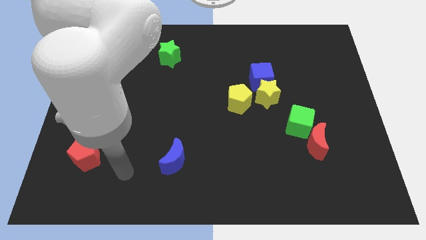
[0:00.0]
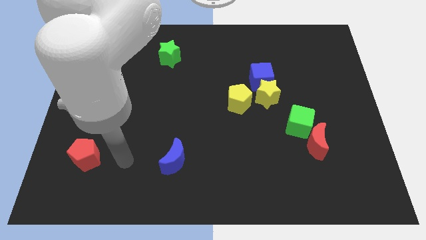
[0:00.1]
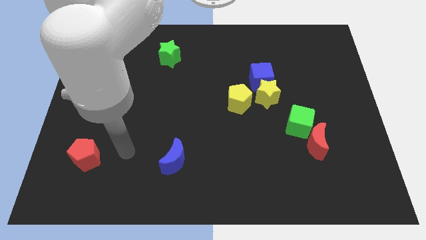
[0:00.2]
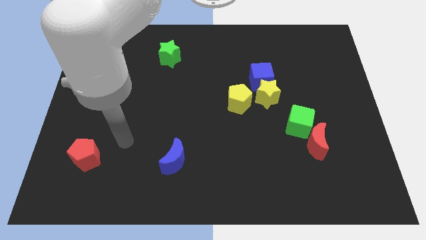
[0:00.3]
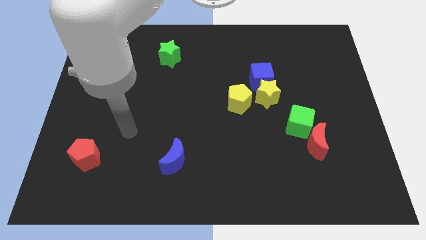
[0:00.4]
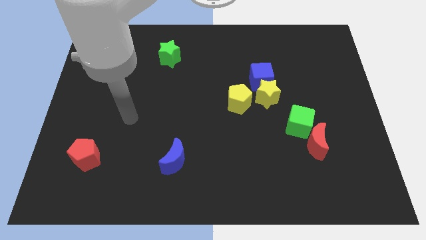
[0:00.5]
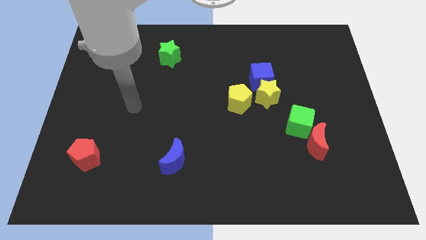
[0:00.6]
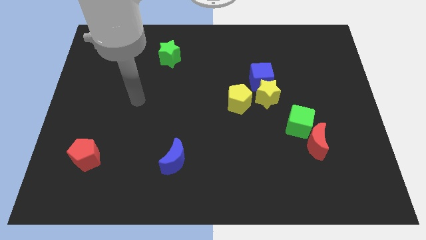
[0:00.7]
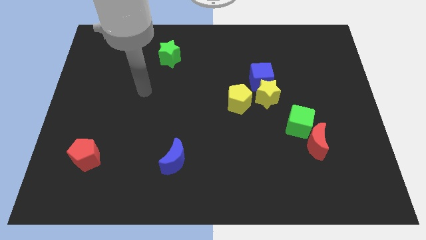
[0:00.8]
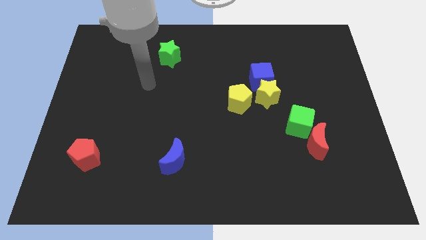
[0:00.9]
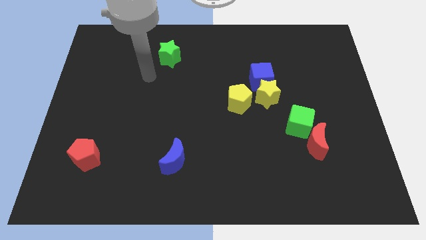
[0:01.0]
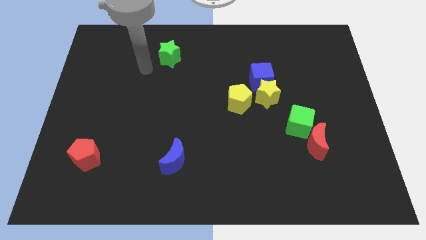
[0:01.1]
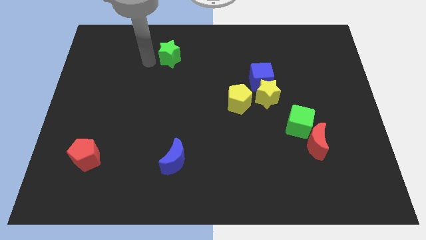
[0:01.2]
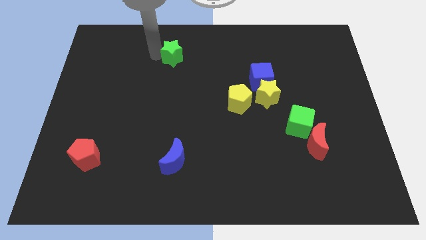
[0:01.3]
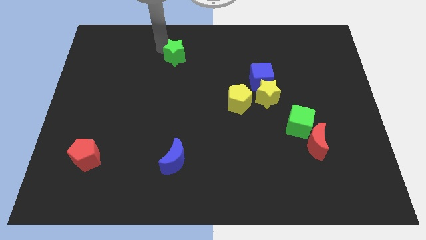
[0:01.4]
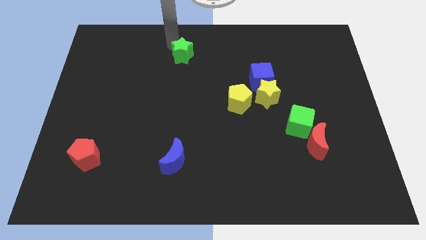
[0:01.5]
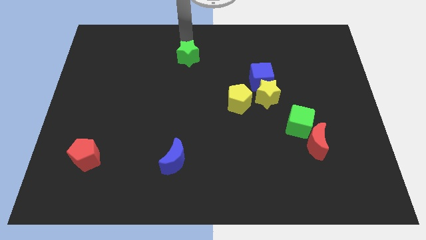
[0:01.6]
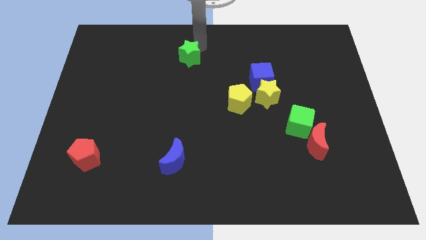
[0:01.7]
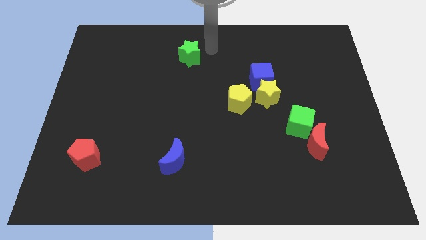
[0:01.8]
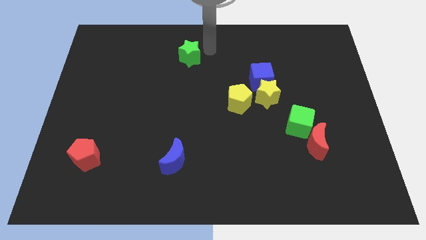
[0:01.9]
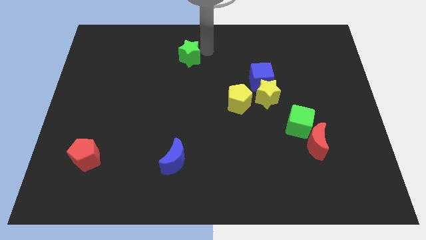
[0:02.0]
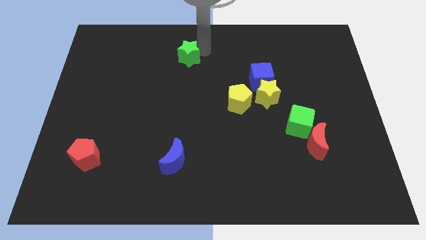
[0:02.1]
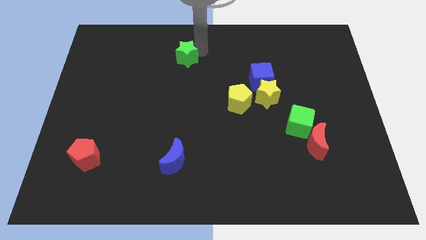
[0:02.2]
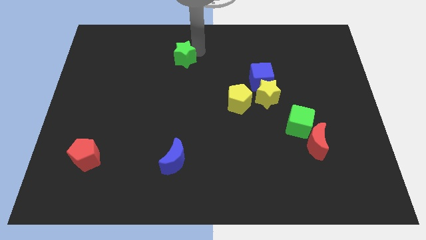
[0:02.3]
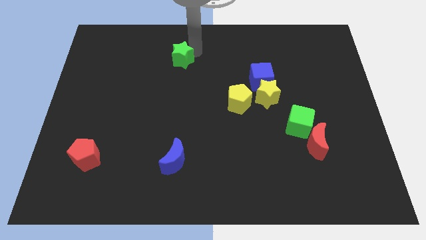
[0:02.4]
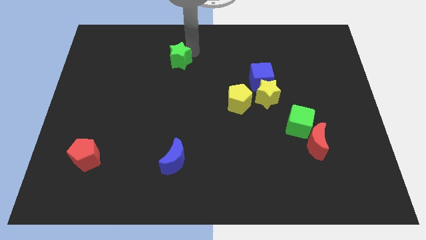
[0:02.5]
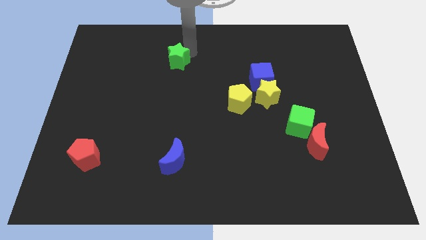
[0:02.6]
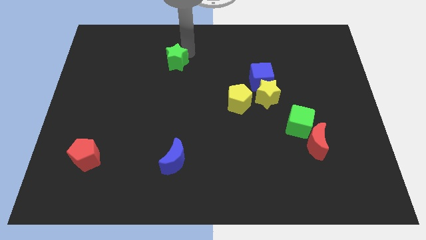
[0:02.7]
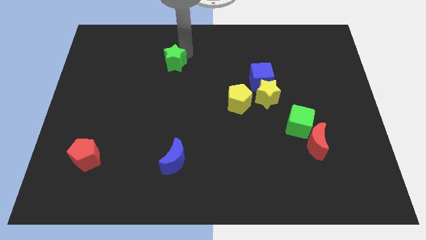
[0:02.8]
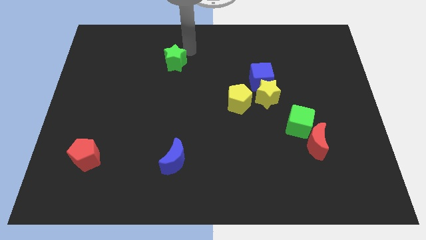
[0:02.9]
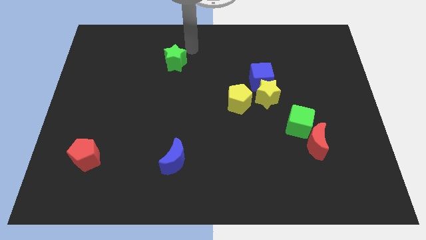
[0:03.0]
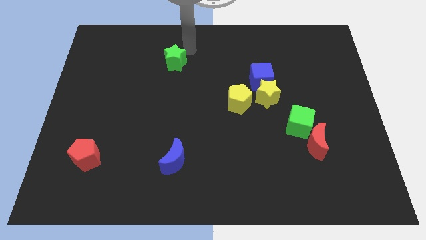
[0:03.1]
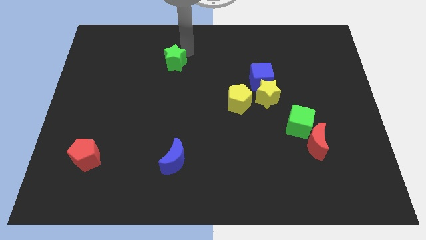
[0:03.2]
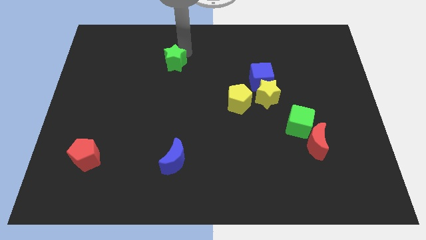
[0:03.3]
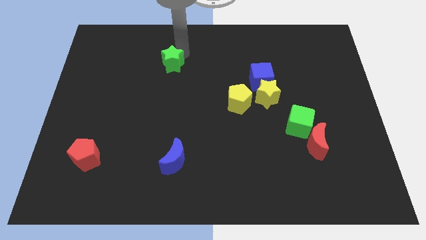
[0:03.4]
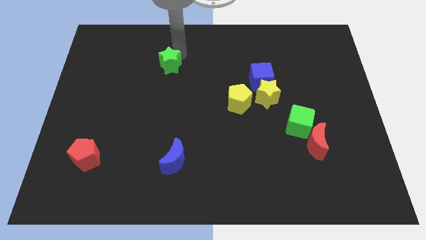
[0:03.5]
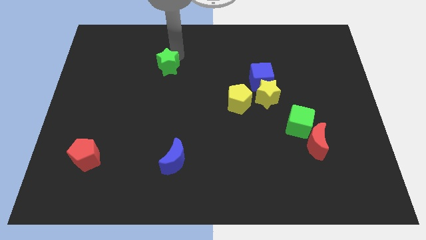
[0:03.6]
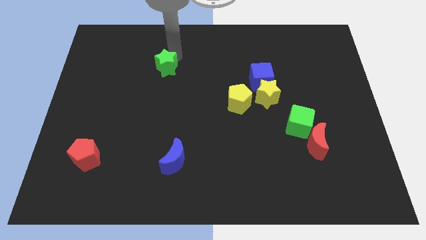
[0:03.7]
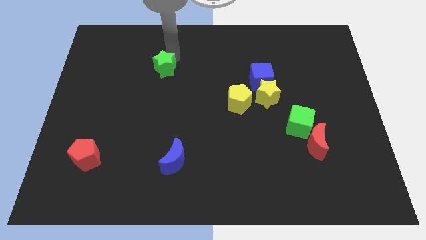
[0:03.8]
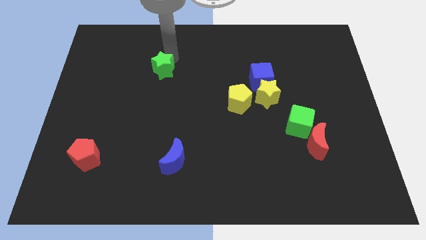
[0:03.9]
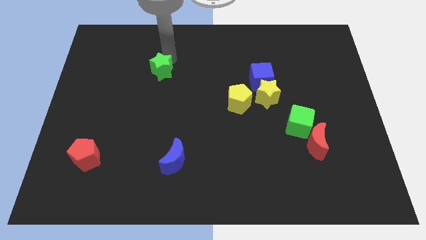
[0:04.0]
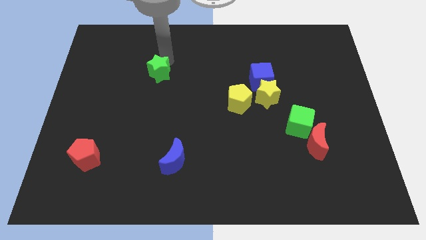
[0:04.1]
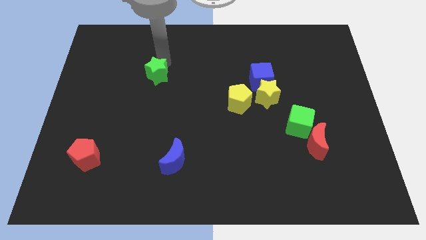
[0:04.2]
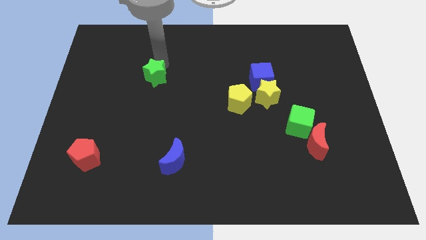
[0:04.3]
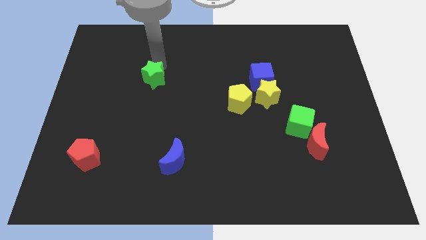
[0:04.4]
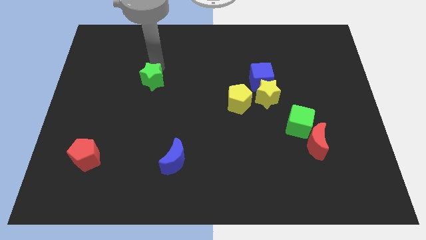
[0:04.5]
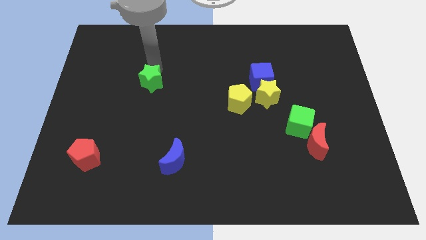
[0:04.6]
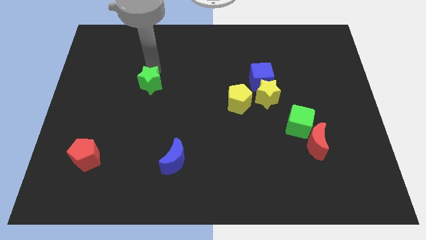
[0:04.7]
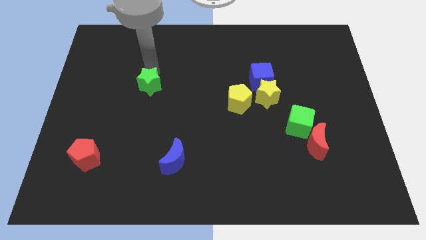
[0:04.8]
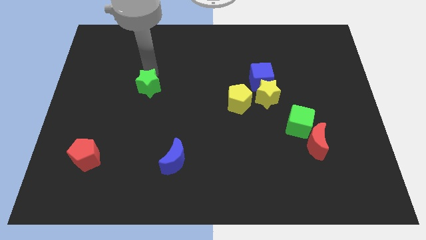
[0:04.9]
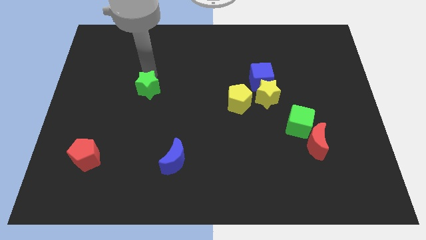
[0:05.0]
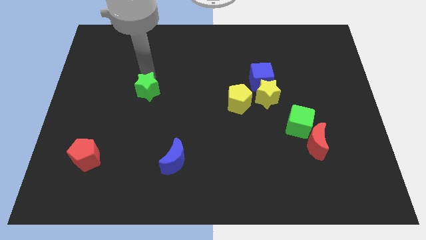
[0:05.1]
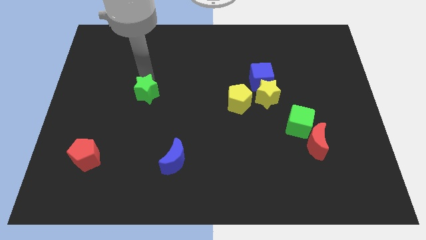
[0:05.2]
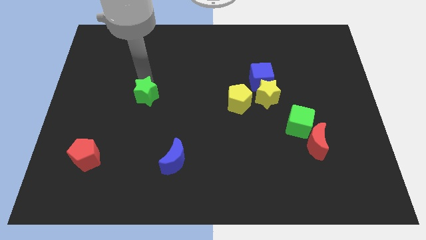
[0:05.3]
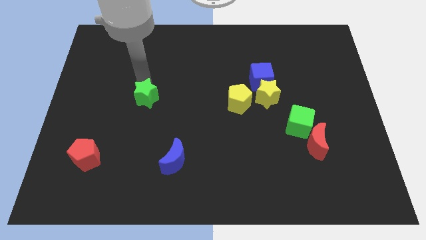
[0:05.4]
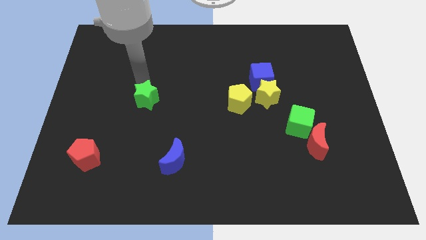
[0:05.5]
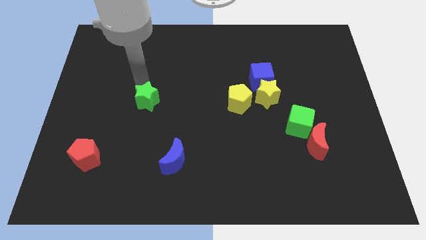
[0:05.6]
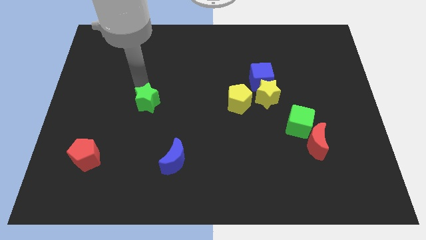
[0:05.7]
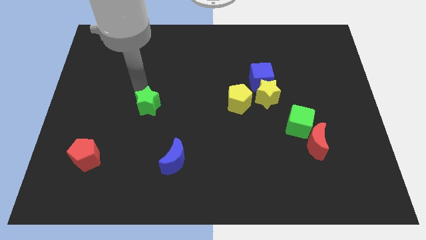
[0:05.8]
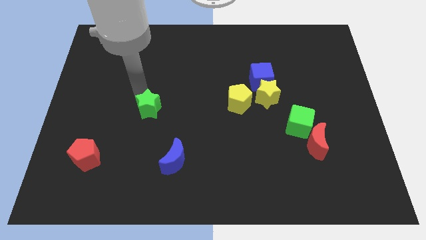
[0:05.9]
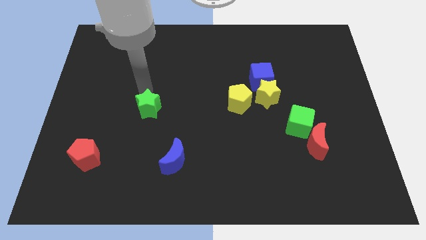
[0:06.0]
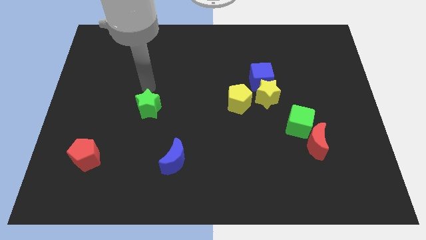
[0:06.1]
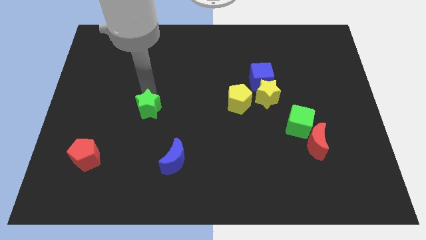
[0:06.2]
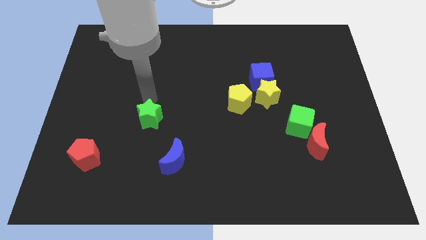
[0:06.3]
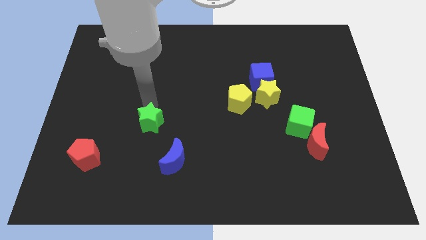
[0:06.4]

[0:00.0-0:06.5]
put the green star to the top left of the blue moon
